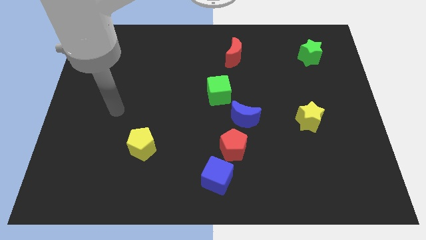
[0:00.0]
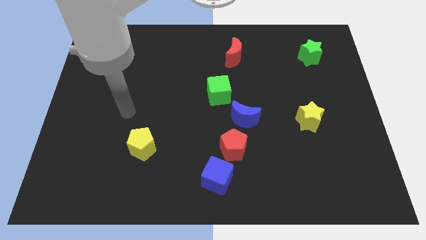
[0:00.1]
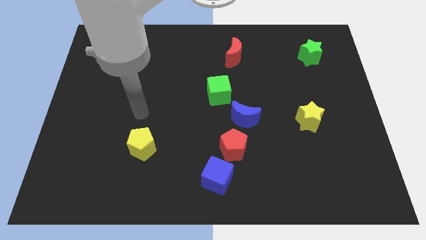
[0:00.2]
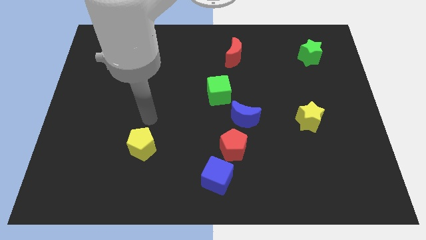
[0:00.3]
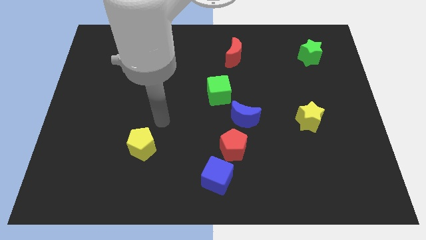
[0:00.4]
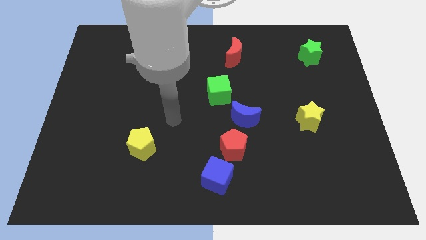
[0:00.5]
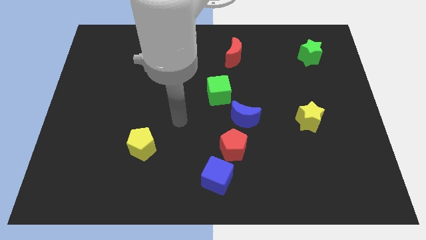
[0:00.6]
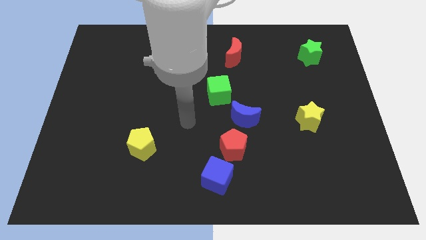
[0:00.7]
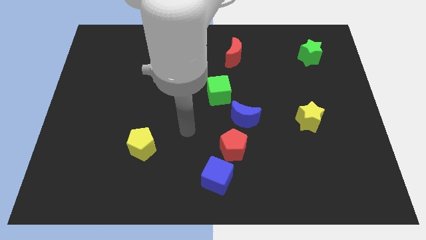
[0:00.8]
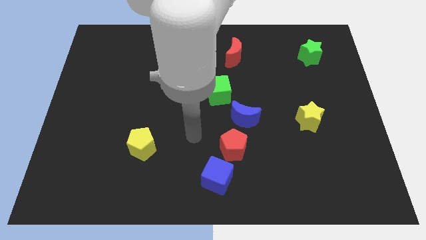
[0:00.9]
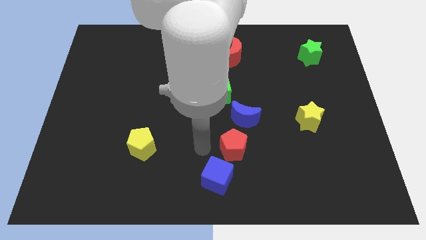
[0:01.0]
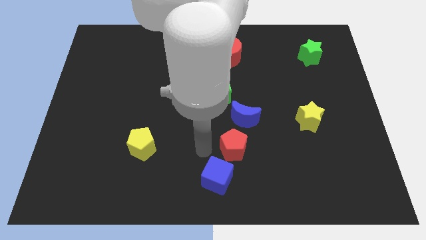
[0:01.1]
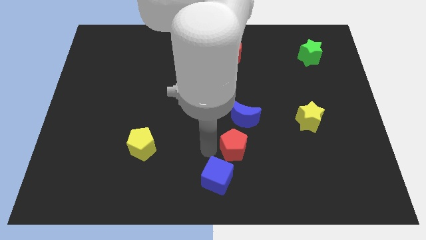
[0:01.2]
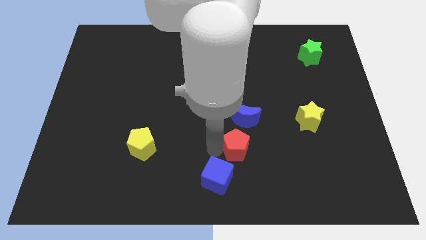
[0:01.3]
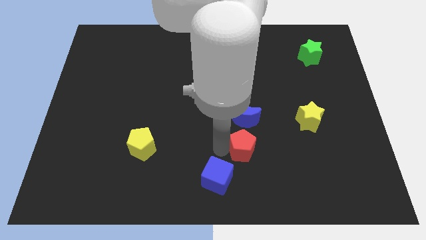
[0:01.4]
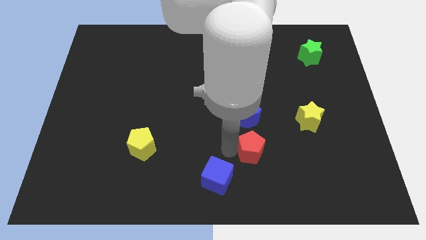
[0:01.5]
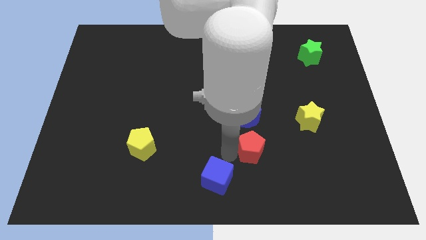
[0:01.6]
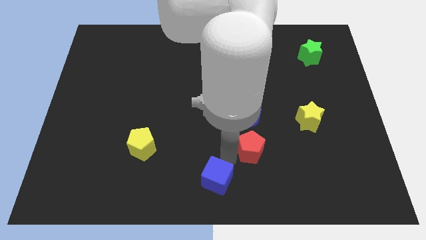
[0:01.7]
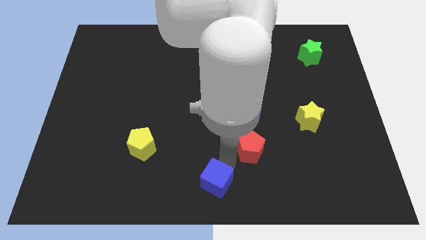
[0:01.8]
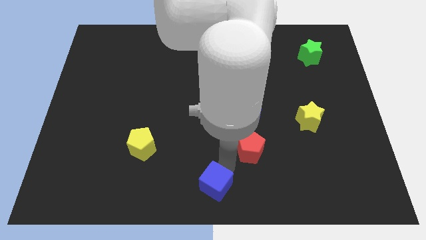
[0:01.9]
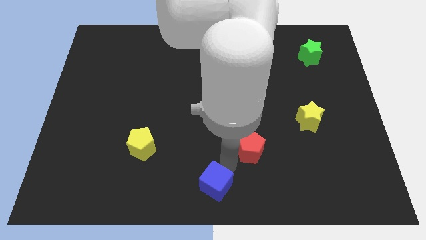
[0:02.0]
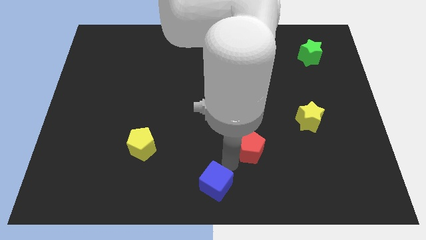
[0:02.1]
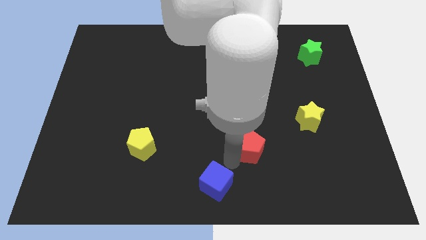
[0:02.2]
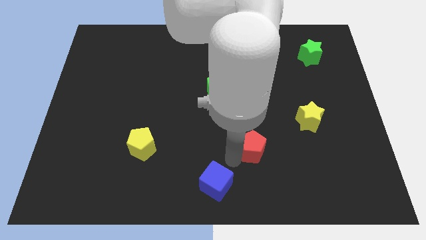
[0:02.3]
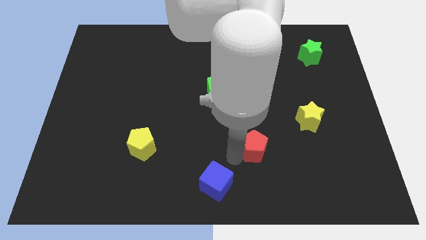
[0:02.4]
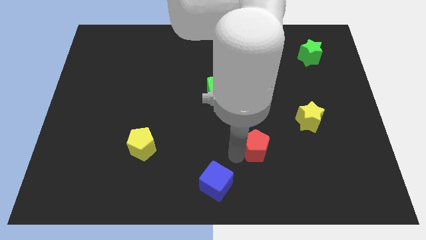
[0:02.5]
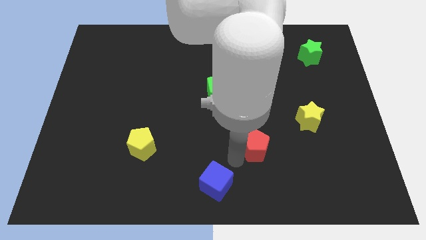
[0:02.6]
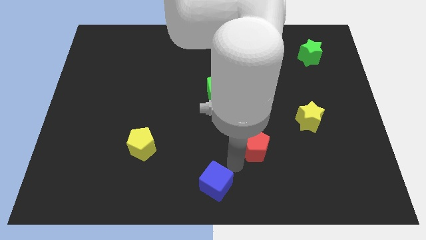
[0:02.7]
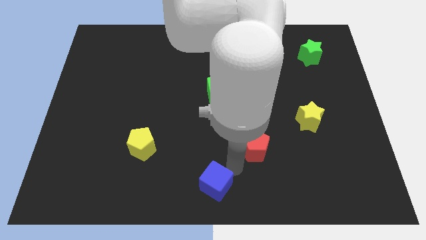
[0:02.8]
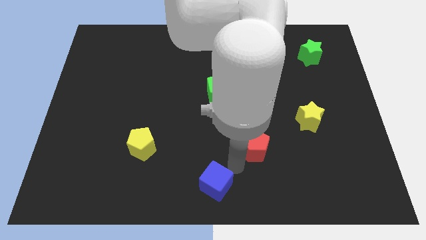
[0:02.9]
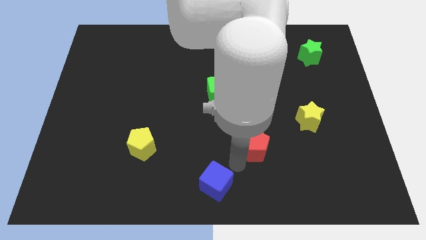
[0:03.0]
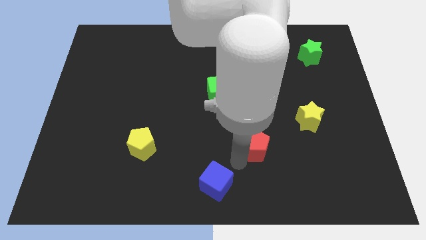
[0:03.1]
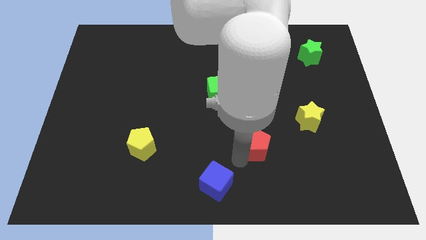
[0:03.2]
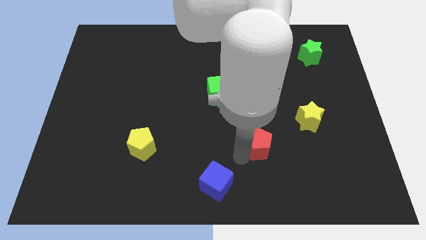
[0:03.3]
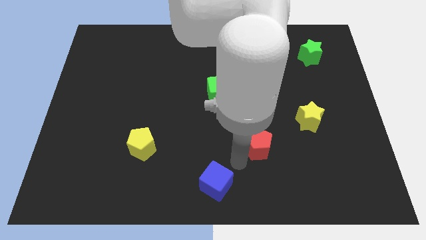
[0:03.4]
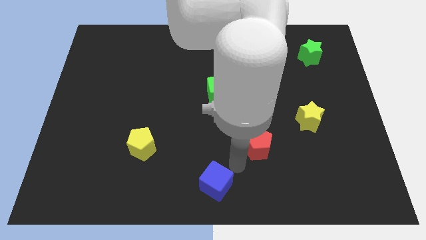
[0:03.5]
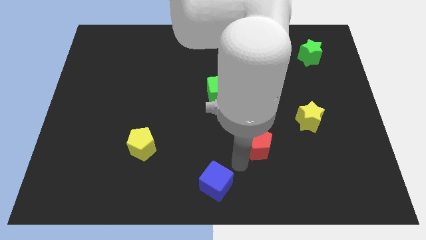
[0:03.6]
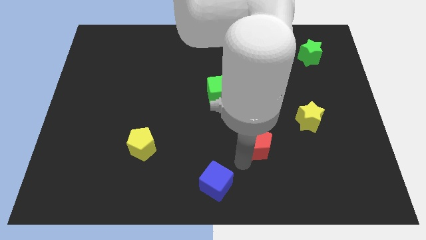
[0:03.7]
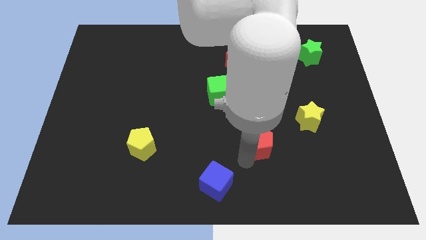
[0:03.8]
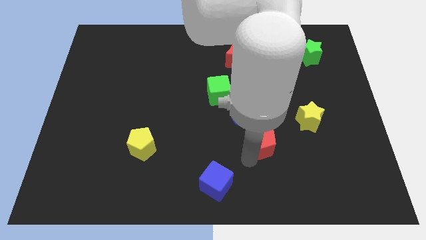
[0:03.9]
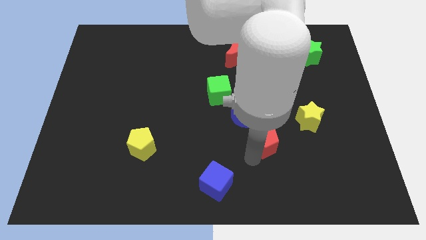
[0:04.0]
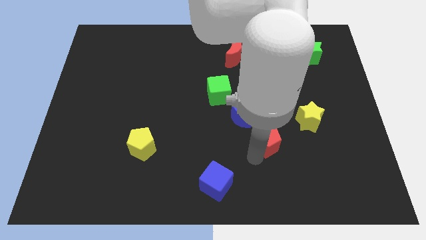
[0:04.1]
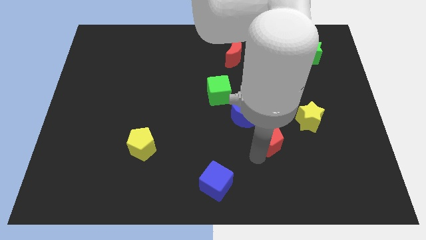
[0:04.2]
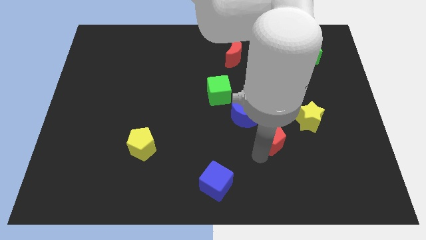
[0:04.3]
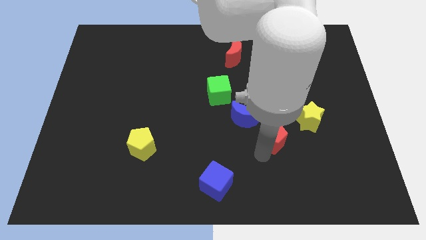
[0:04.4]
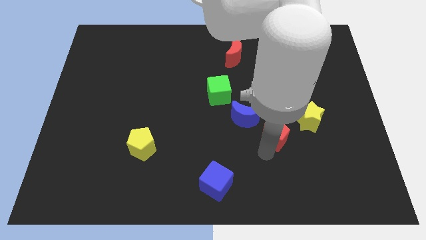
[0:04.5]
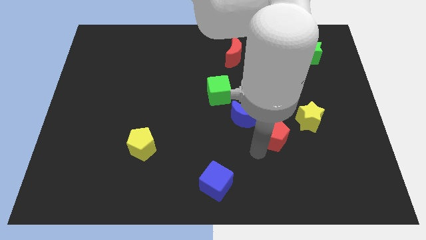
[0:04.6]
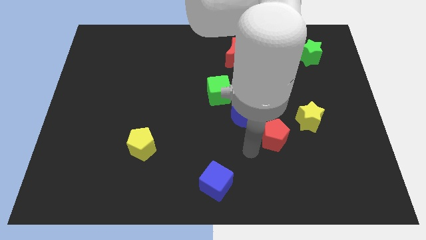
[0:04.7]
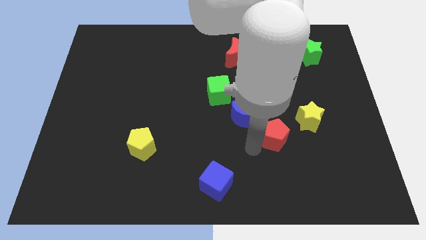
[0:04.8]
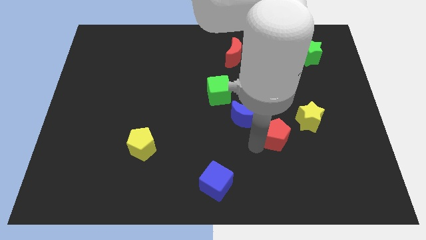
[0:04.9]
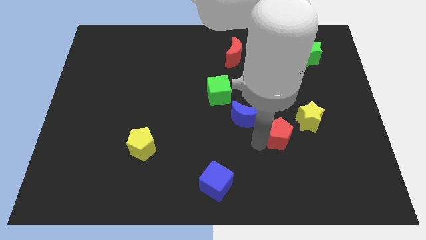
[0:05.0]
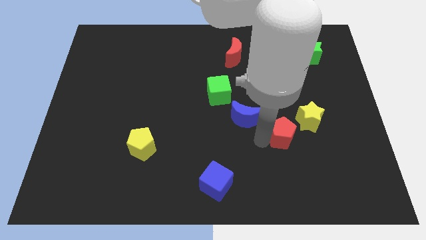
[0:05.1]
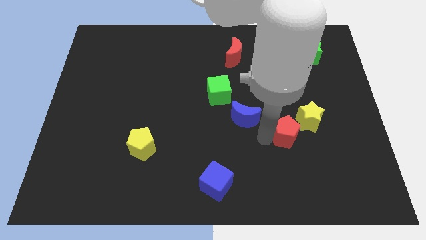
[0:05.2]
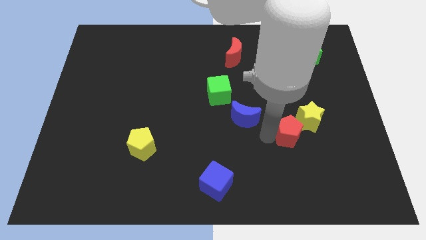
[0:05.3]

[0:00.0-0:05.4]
push the red pentagon to the yellow star

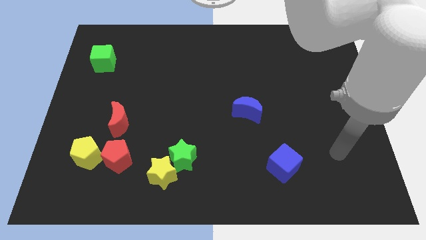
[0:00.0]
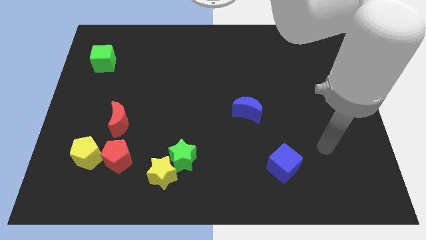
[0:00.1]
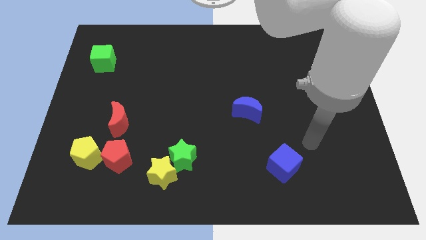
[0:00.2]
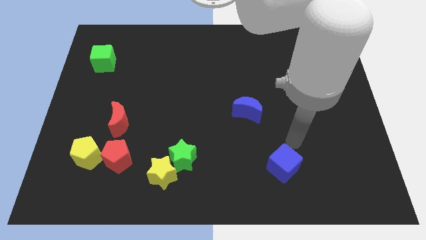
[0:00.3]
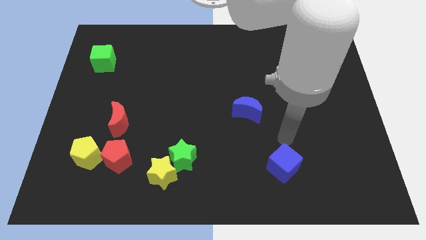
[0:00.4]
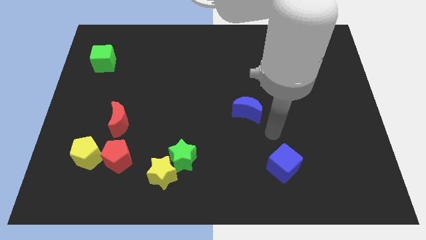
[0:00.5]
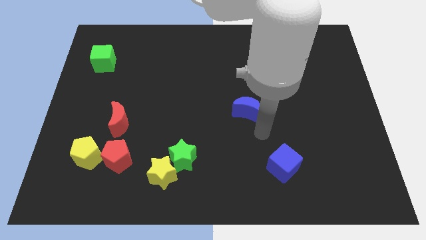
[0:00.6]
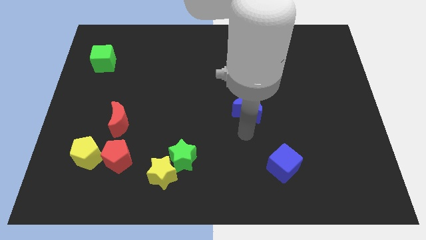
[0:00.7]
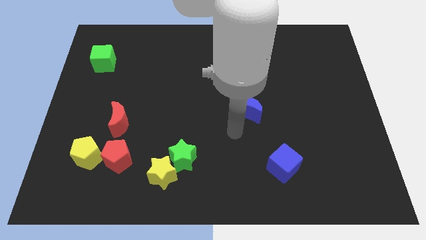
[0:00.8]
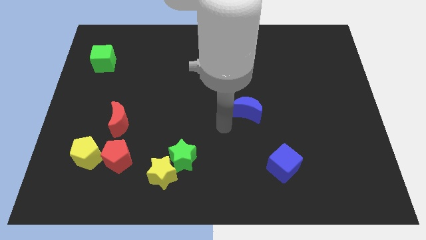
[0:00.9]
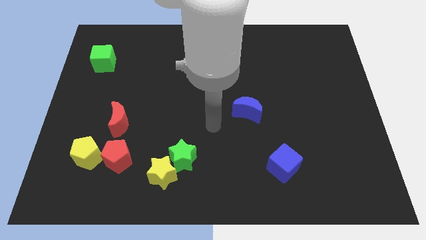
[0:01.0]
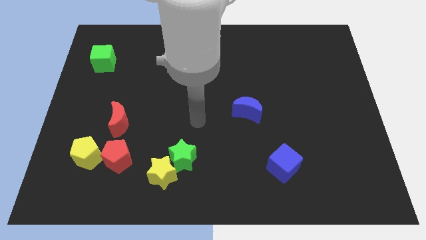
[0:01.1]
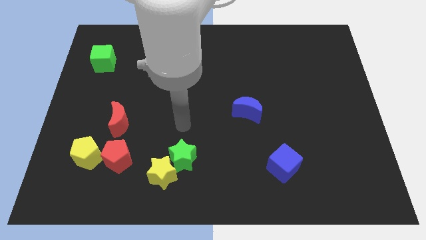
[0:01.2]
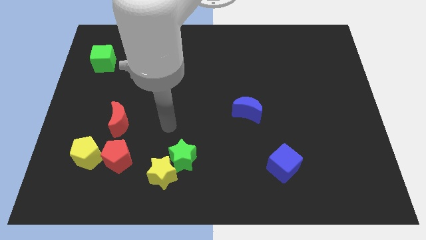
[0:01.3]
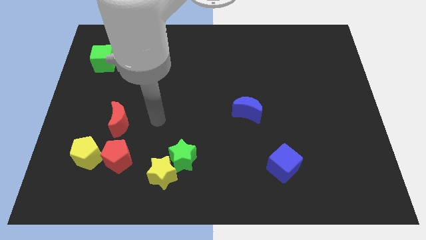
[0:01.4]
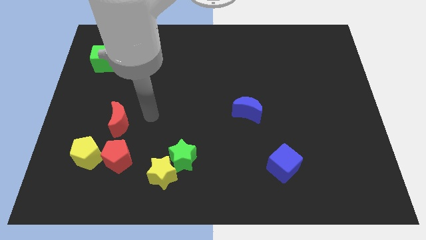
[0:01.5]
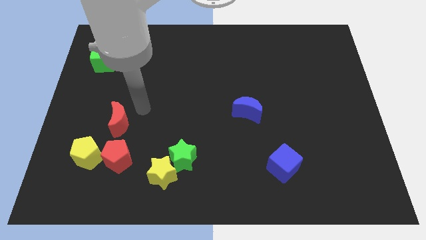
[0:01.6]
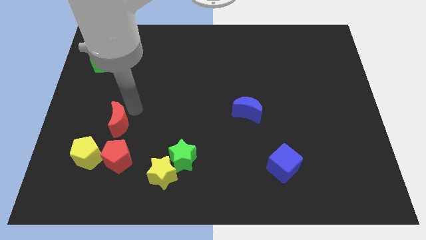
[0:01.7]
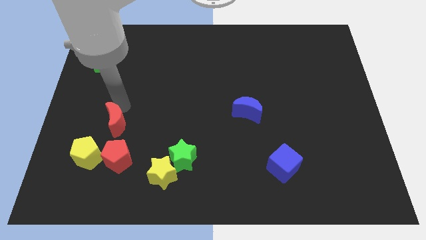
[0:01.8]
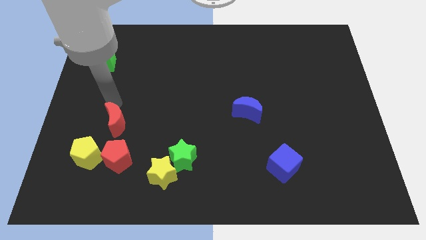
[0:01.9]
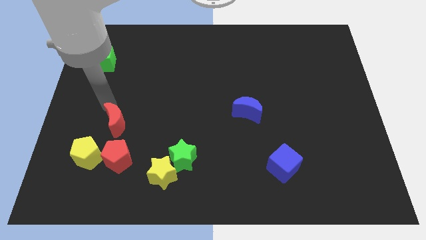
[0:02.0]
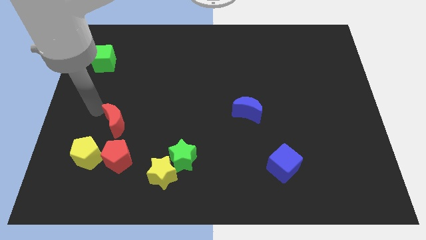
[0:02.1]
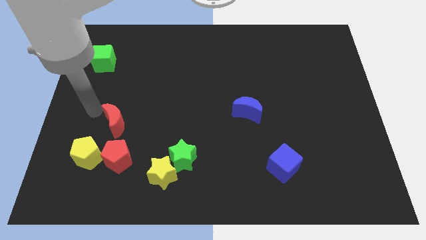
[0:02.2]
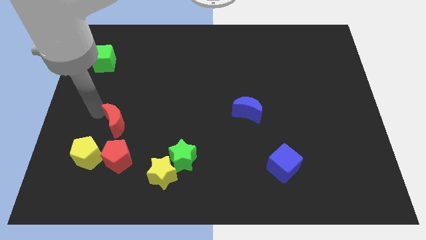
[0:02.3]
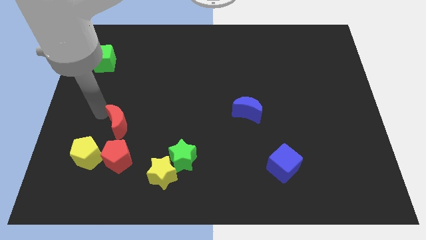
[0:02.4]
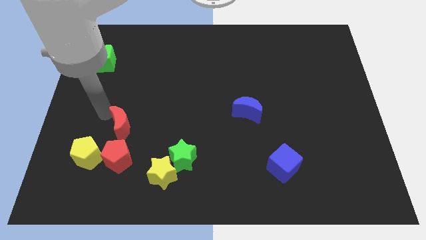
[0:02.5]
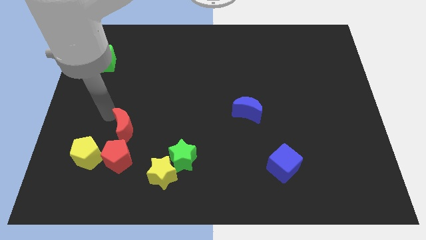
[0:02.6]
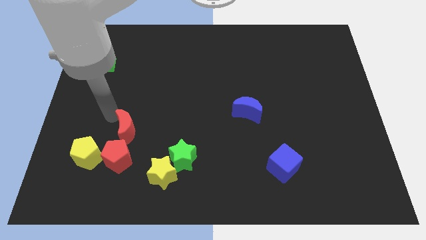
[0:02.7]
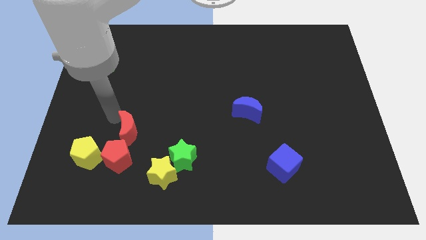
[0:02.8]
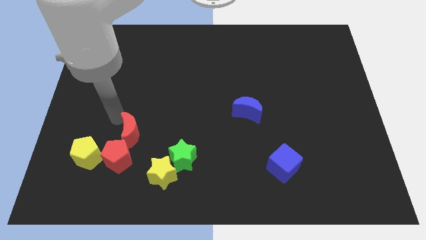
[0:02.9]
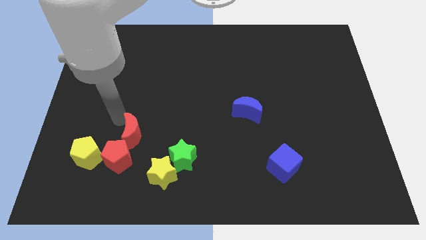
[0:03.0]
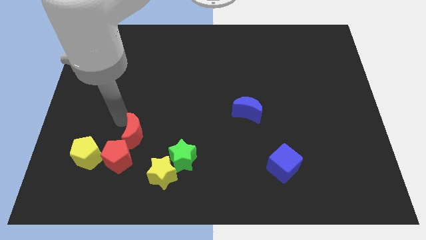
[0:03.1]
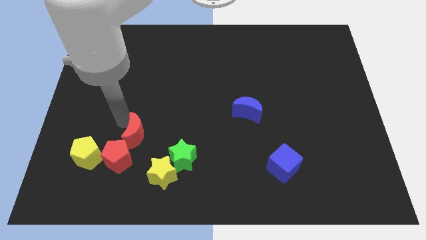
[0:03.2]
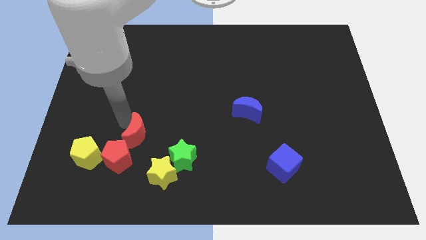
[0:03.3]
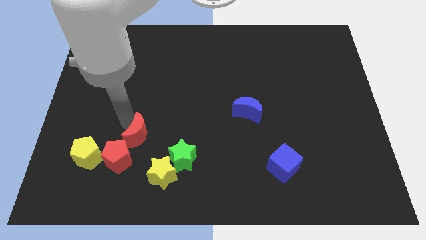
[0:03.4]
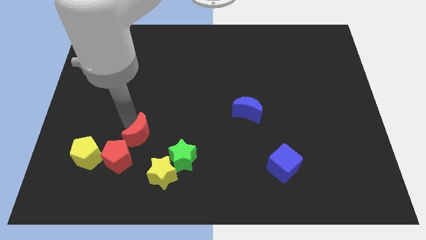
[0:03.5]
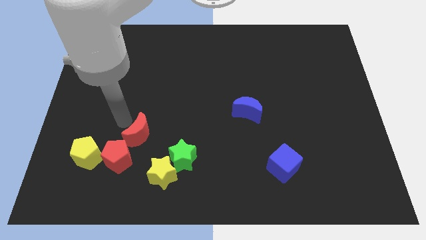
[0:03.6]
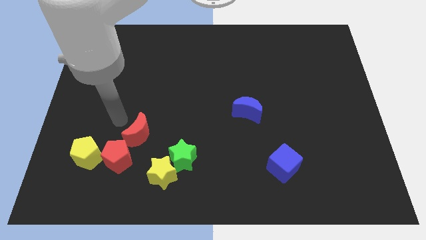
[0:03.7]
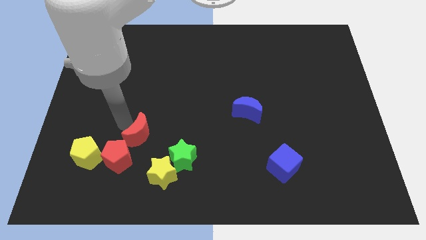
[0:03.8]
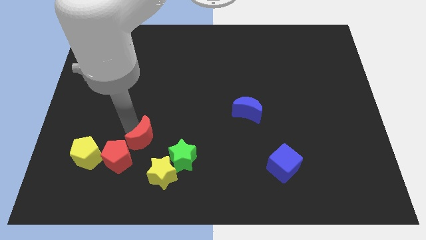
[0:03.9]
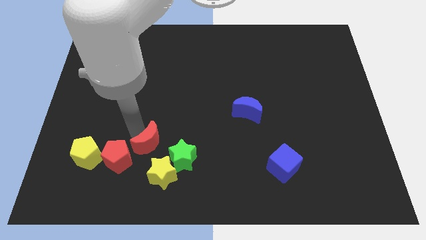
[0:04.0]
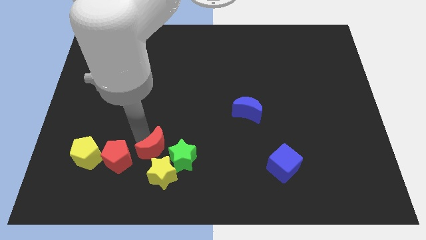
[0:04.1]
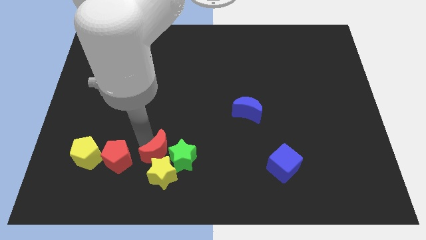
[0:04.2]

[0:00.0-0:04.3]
push the red moon towards the green star
